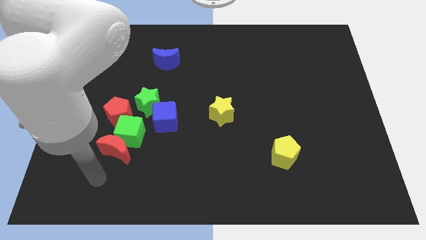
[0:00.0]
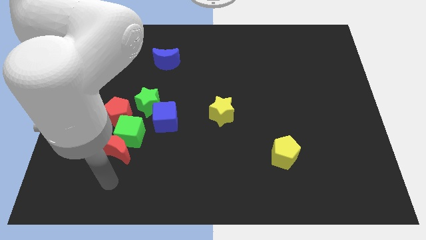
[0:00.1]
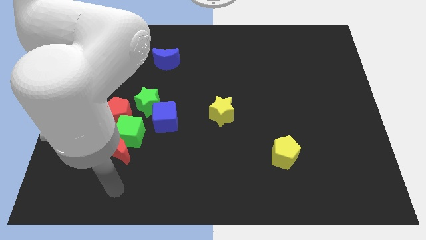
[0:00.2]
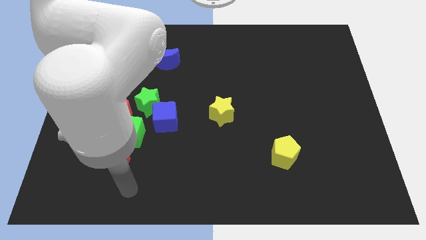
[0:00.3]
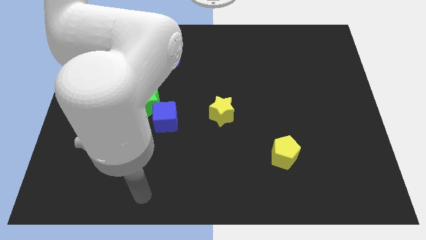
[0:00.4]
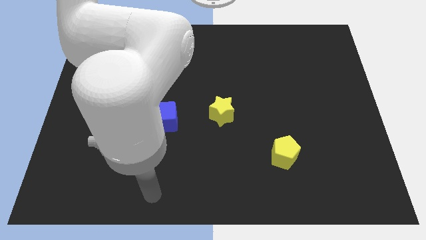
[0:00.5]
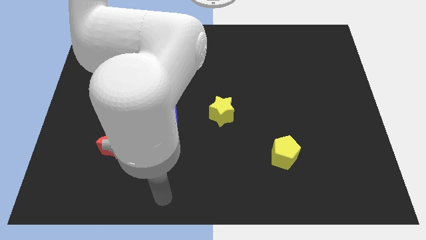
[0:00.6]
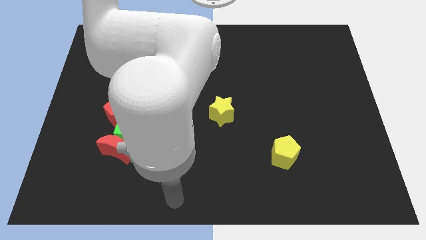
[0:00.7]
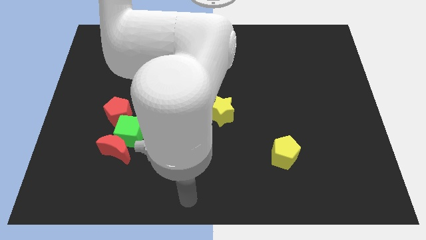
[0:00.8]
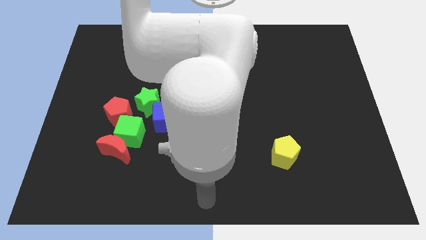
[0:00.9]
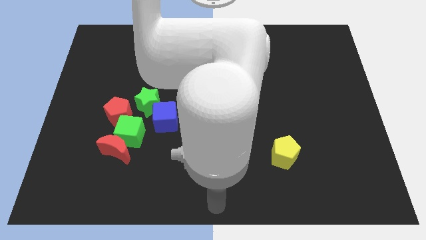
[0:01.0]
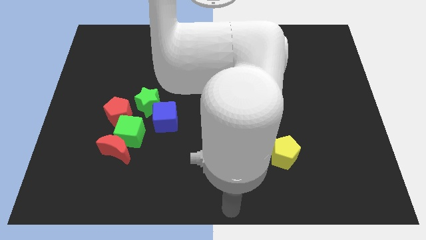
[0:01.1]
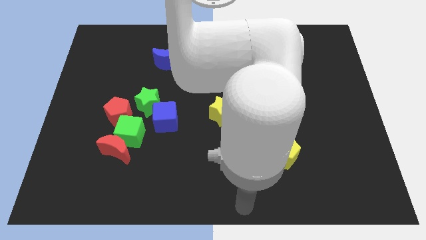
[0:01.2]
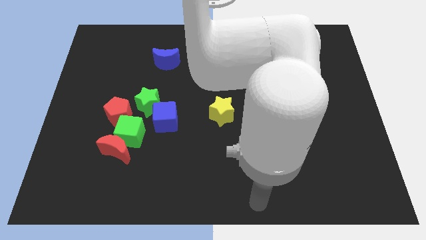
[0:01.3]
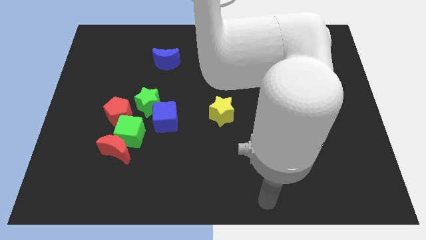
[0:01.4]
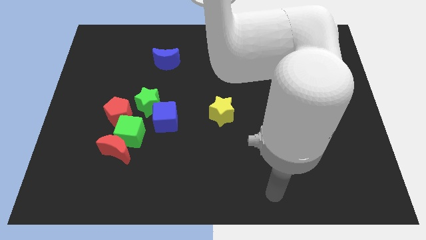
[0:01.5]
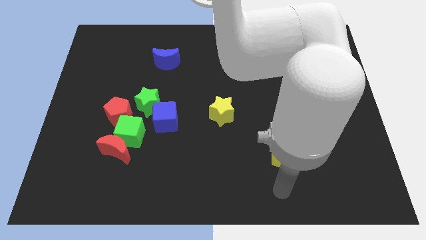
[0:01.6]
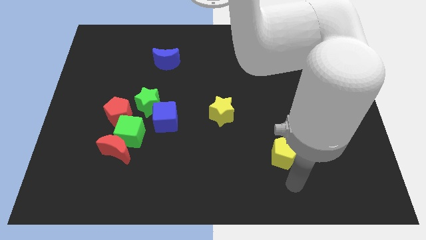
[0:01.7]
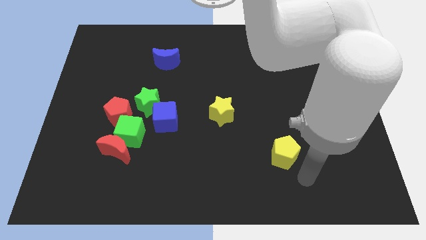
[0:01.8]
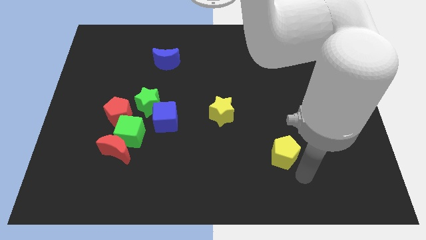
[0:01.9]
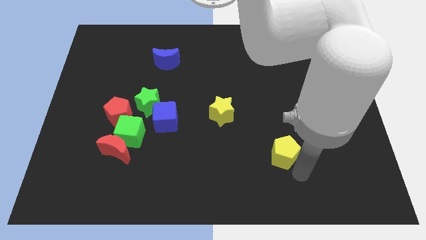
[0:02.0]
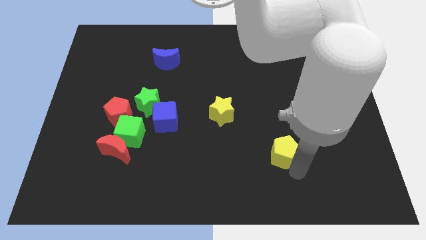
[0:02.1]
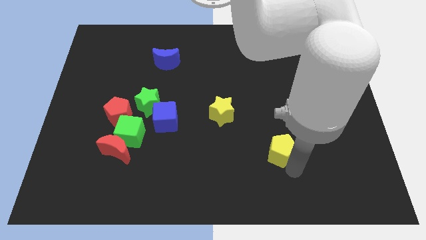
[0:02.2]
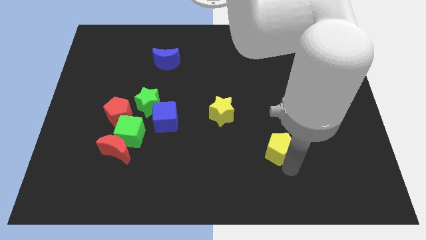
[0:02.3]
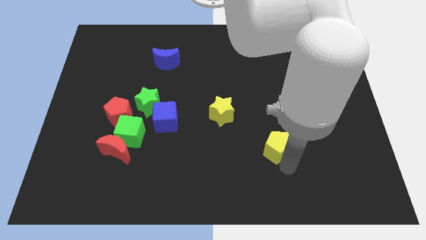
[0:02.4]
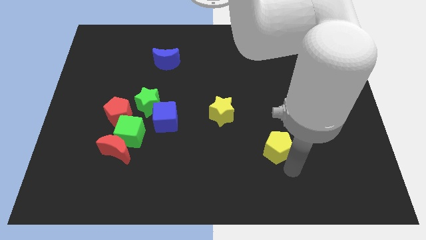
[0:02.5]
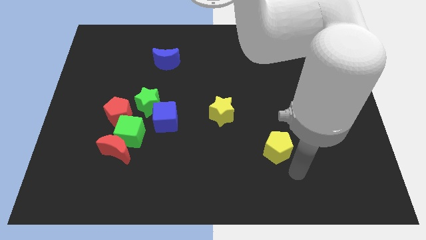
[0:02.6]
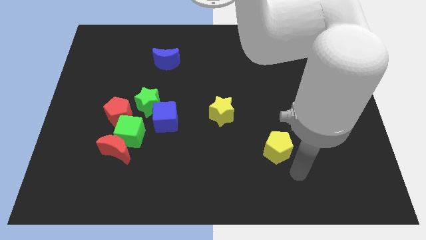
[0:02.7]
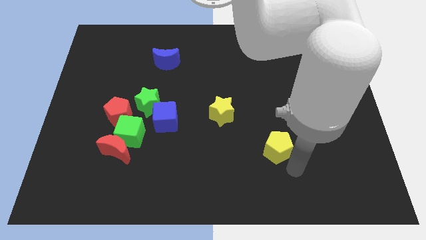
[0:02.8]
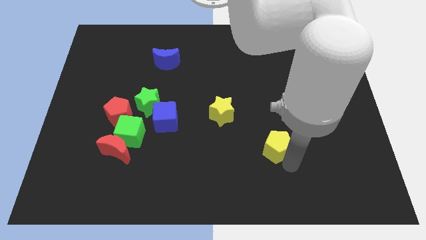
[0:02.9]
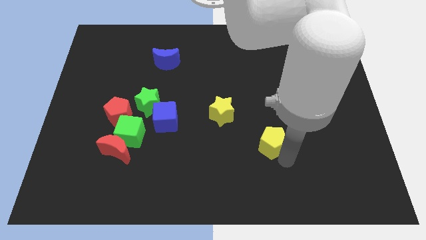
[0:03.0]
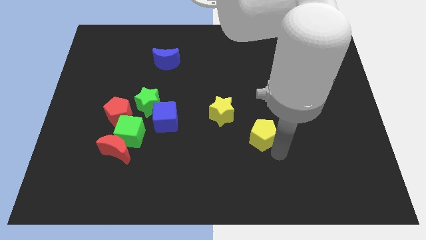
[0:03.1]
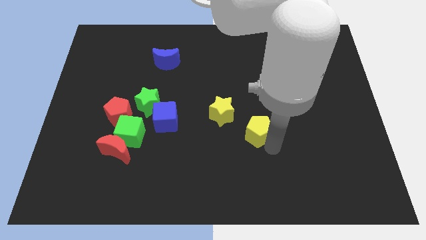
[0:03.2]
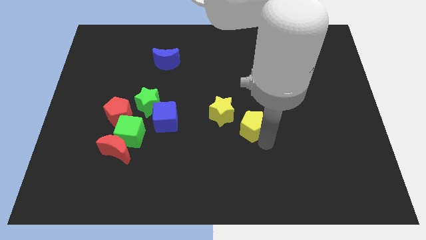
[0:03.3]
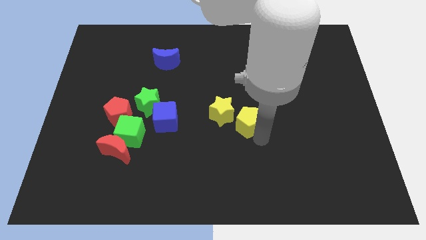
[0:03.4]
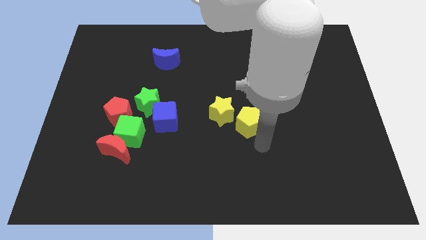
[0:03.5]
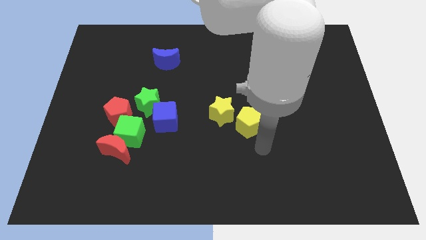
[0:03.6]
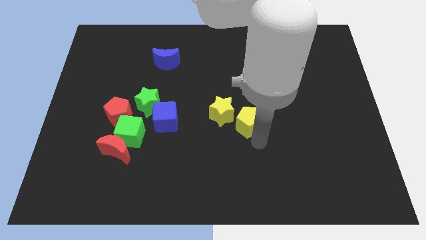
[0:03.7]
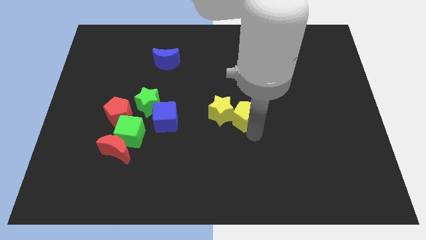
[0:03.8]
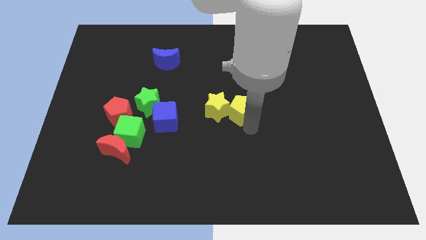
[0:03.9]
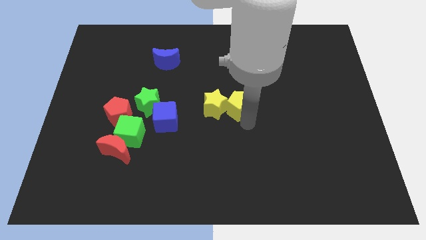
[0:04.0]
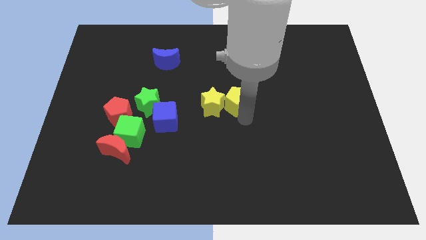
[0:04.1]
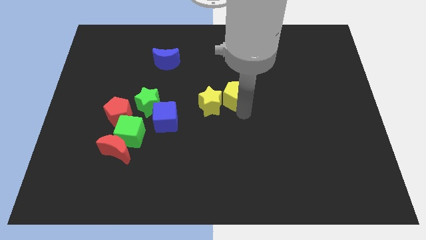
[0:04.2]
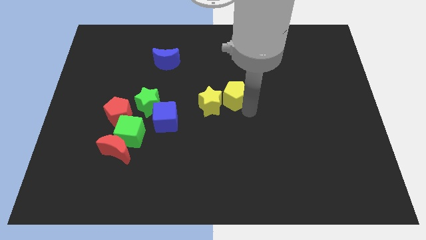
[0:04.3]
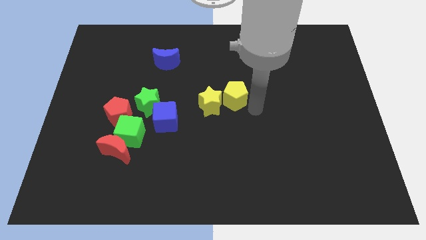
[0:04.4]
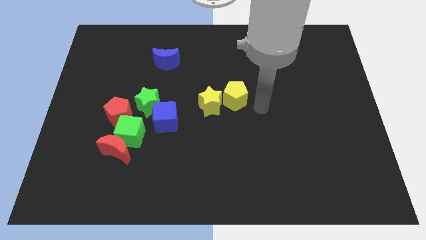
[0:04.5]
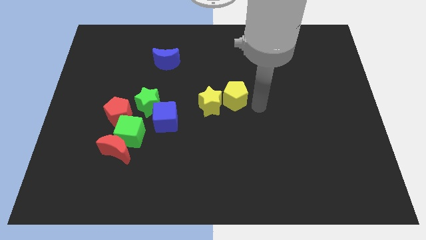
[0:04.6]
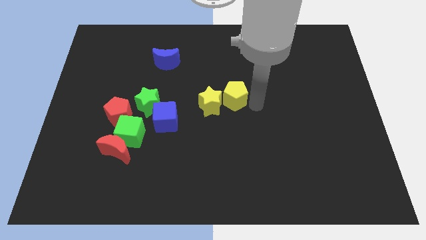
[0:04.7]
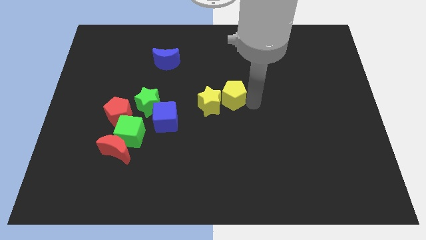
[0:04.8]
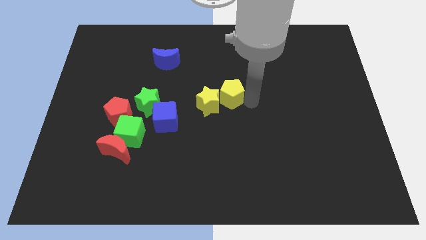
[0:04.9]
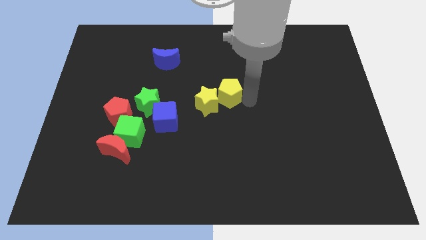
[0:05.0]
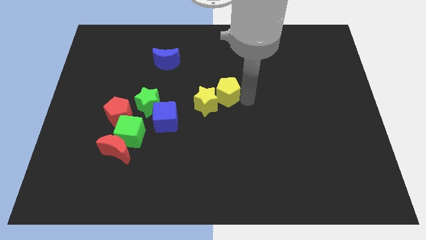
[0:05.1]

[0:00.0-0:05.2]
slide the yellow pentagon diagonally upwards and left

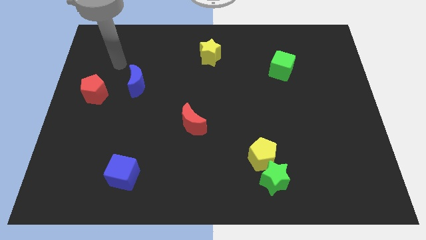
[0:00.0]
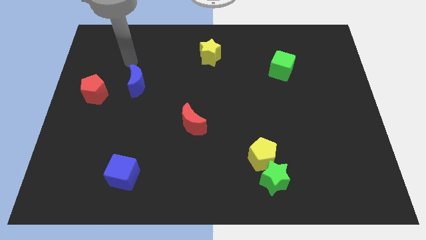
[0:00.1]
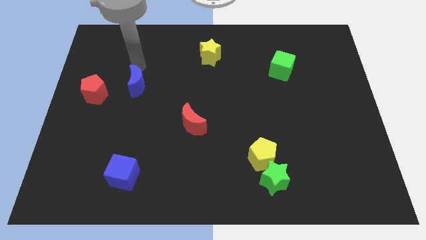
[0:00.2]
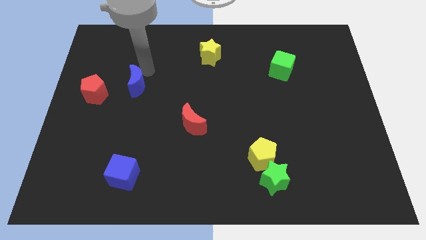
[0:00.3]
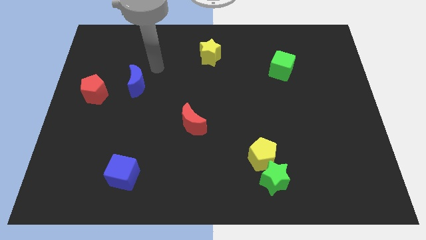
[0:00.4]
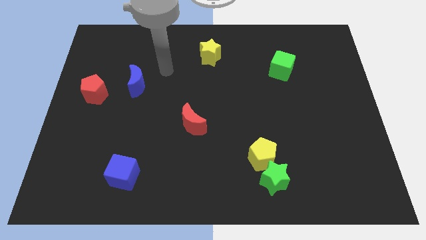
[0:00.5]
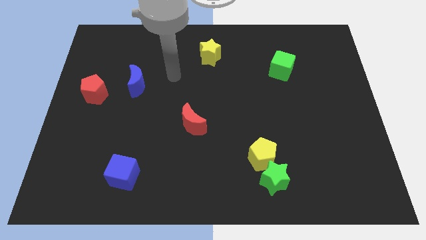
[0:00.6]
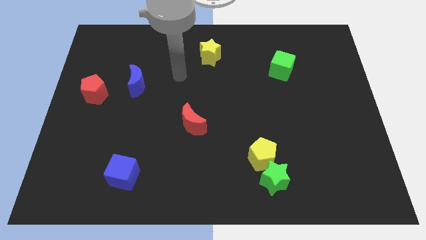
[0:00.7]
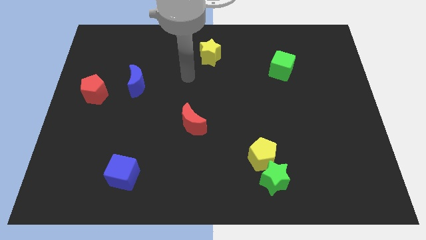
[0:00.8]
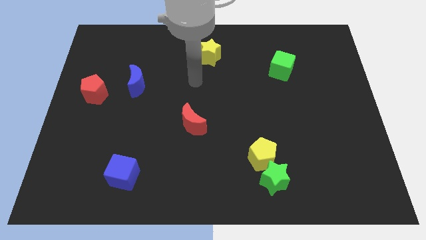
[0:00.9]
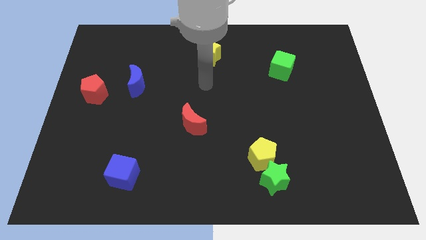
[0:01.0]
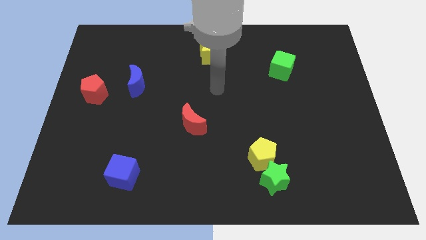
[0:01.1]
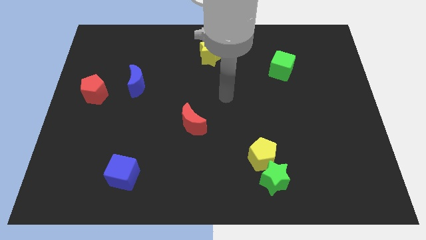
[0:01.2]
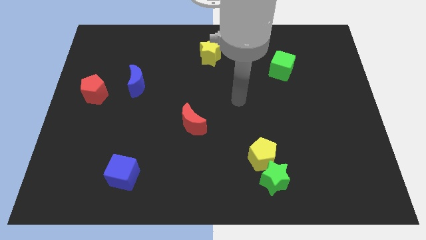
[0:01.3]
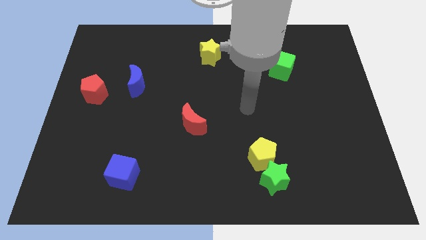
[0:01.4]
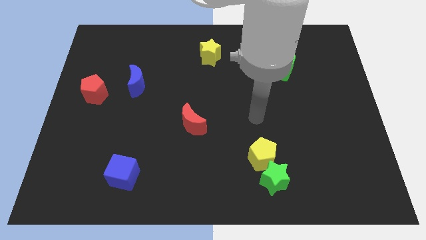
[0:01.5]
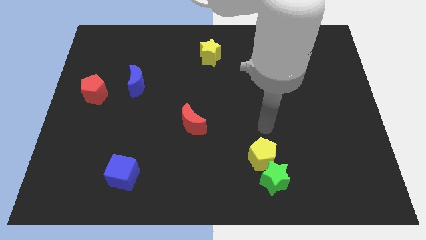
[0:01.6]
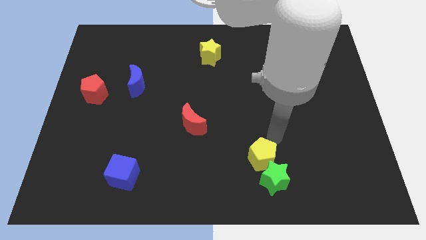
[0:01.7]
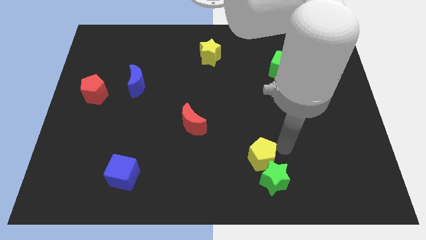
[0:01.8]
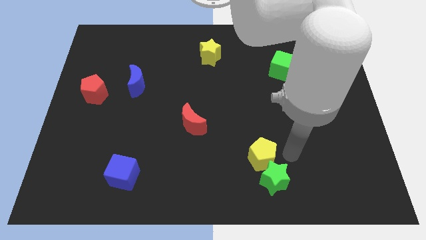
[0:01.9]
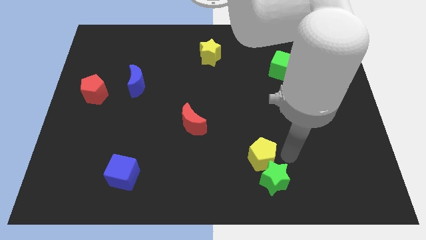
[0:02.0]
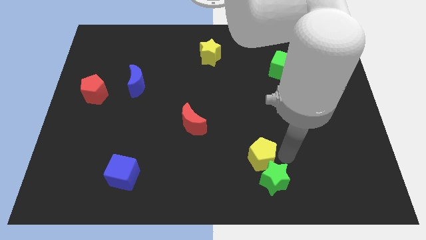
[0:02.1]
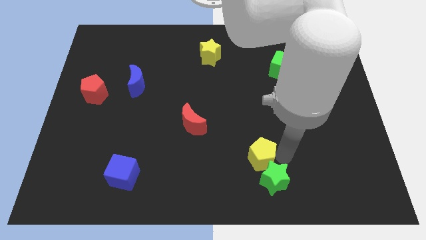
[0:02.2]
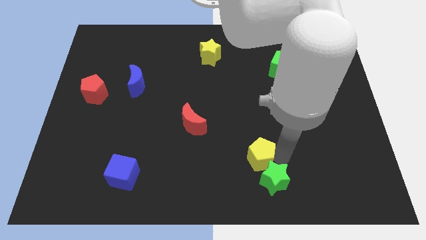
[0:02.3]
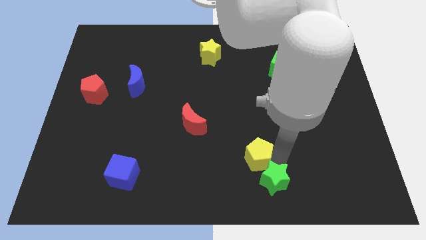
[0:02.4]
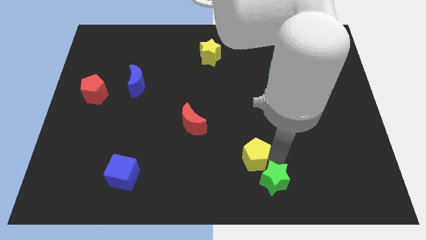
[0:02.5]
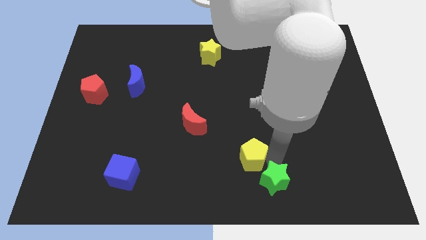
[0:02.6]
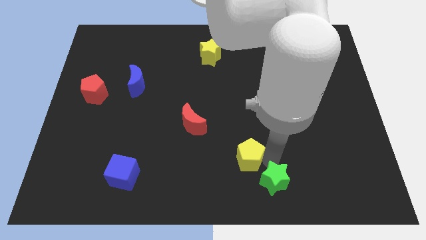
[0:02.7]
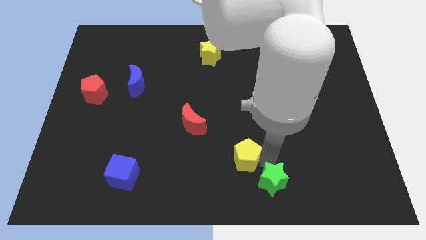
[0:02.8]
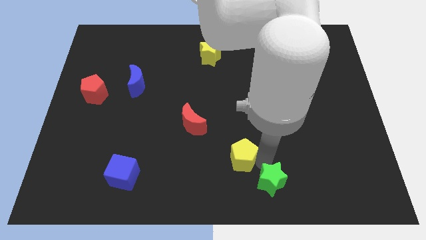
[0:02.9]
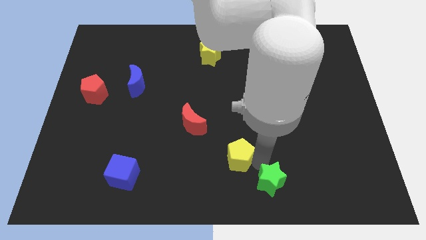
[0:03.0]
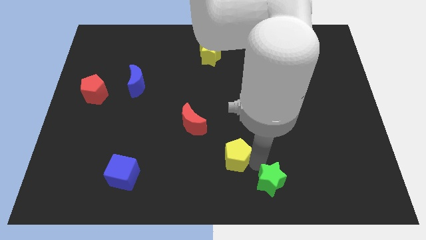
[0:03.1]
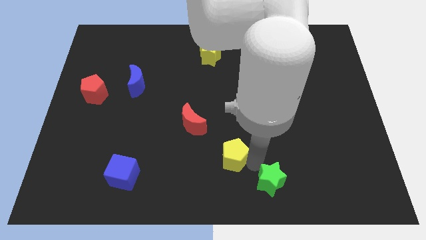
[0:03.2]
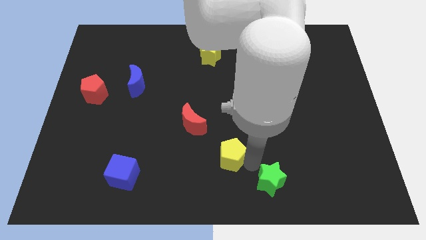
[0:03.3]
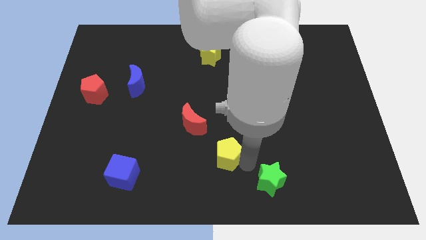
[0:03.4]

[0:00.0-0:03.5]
slide the yellow pentagon a little left
